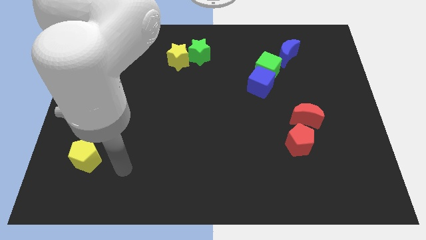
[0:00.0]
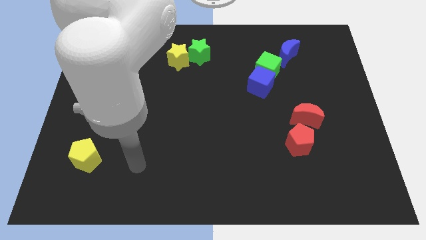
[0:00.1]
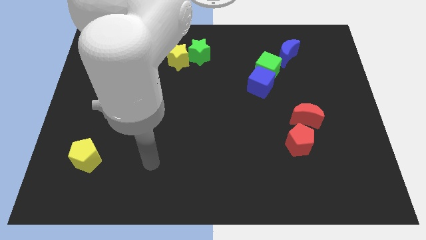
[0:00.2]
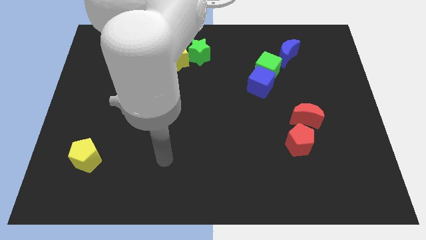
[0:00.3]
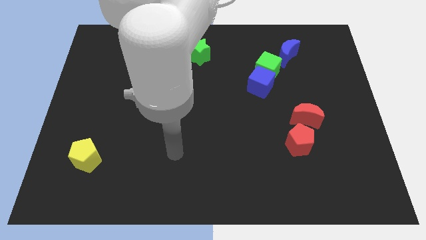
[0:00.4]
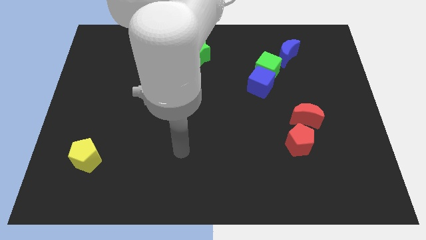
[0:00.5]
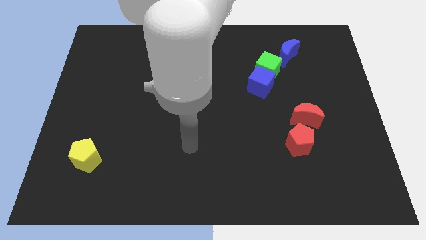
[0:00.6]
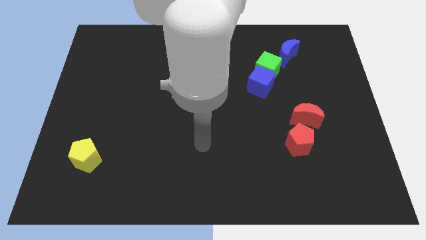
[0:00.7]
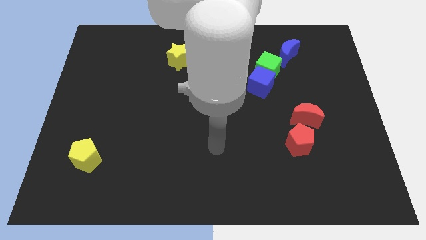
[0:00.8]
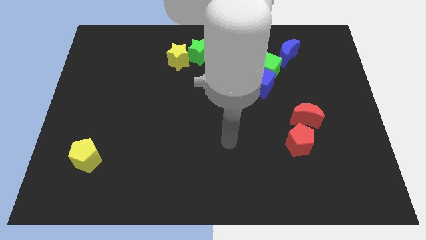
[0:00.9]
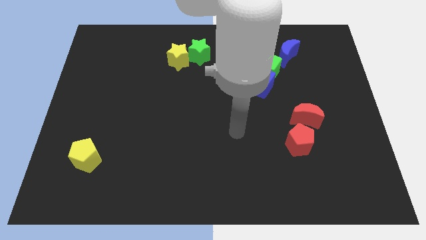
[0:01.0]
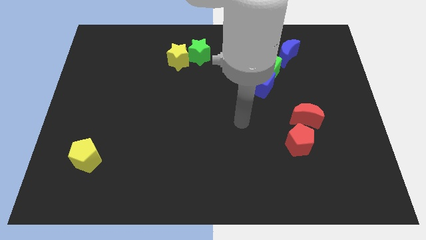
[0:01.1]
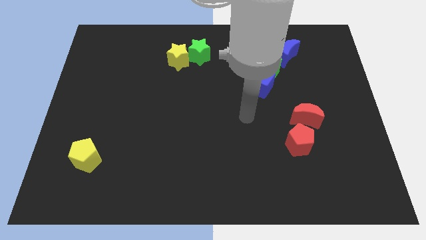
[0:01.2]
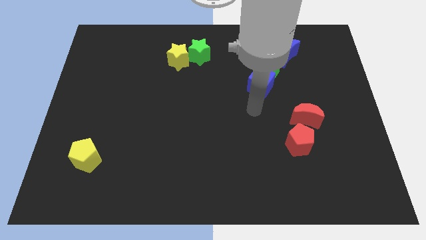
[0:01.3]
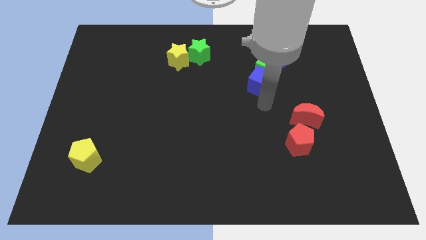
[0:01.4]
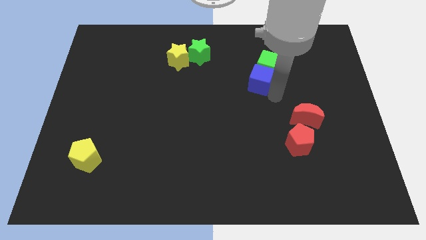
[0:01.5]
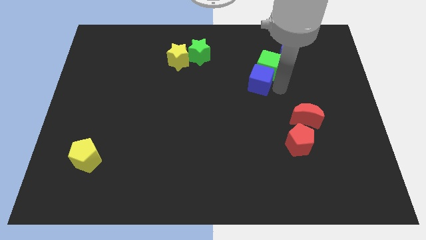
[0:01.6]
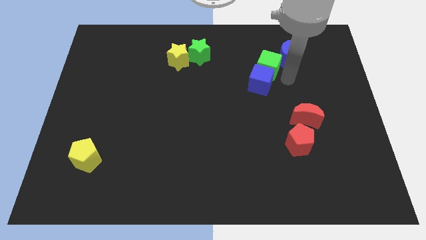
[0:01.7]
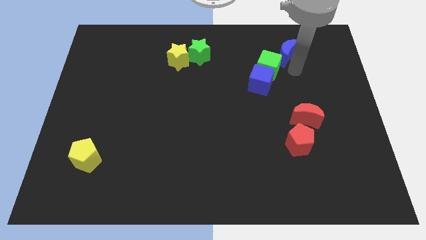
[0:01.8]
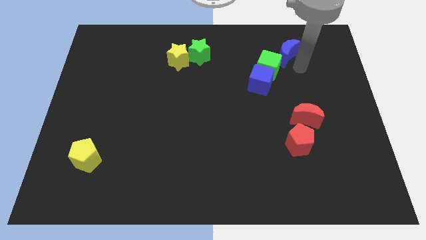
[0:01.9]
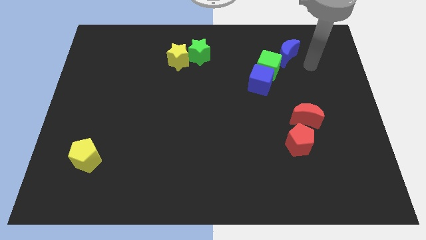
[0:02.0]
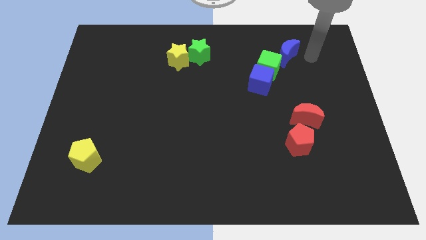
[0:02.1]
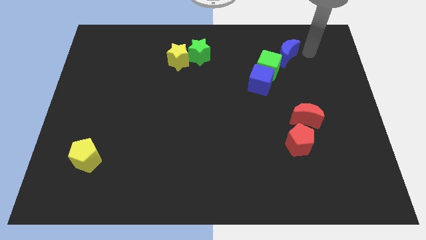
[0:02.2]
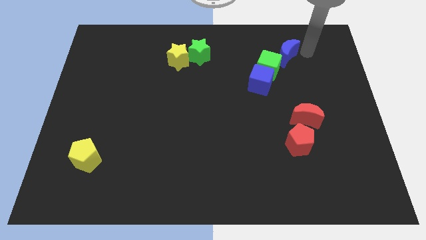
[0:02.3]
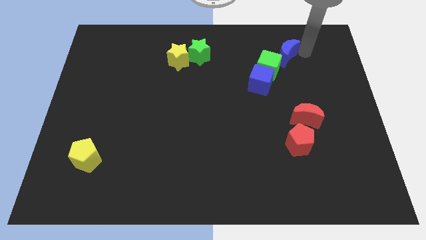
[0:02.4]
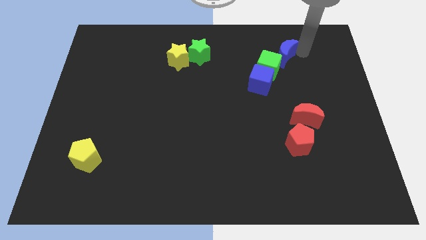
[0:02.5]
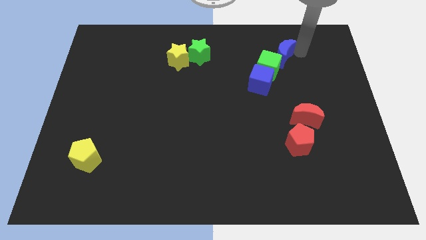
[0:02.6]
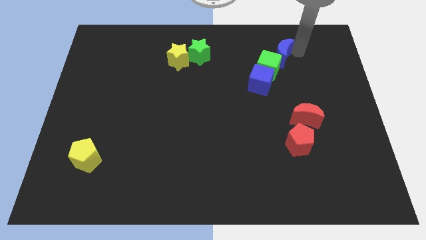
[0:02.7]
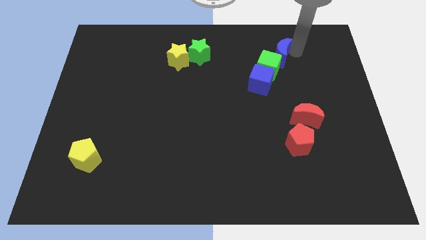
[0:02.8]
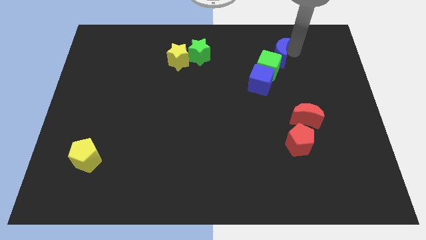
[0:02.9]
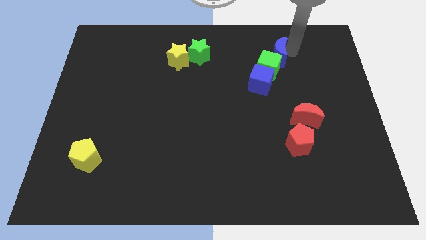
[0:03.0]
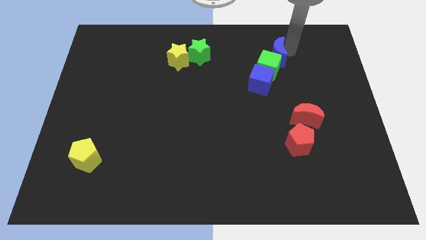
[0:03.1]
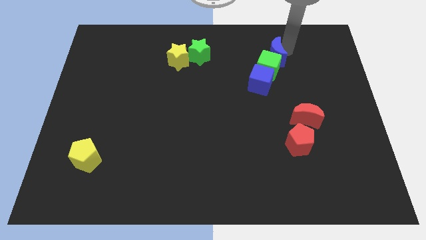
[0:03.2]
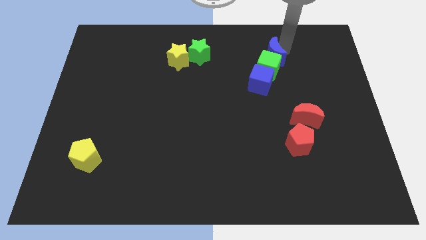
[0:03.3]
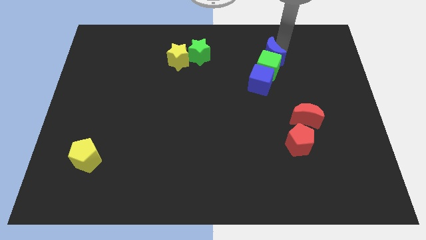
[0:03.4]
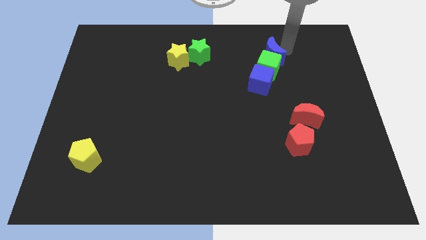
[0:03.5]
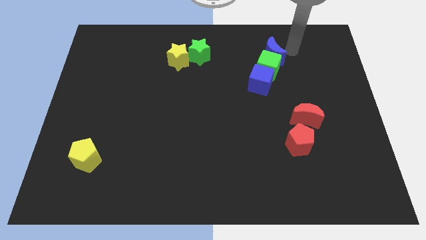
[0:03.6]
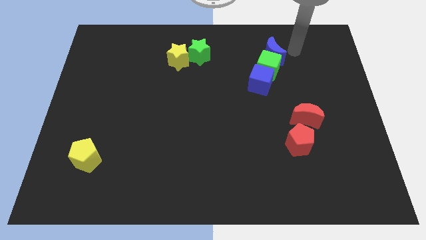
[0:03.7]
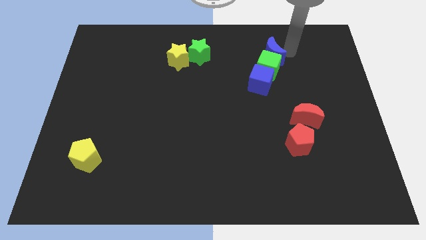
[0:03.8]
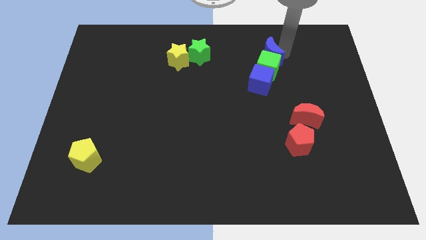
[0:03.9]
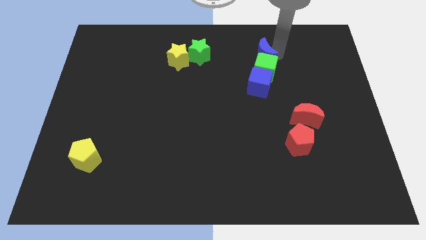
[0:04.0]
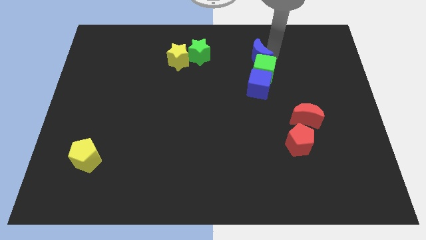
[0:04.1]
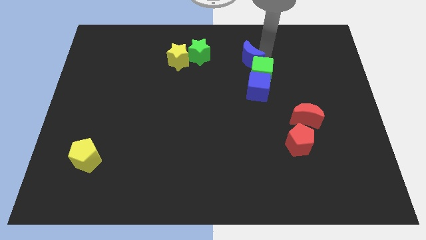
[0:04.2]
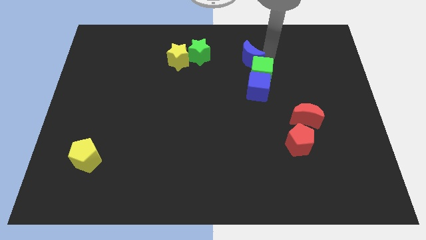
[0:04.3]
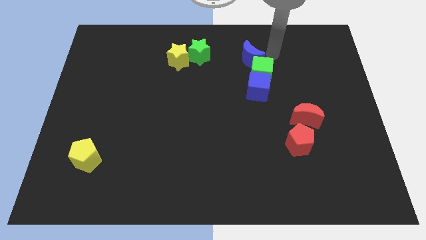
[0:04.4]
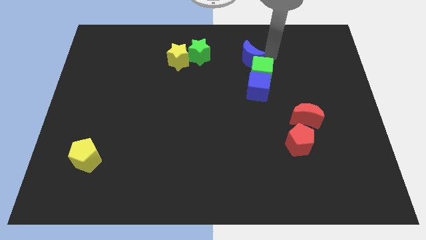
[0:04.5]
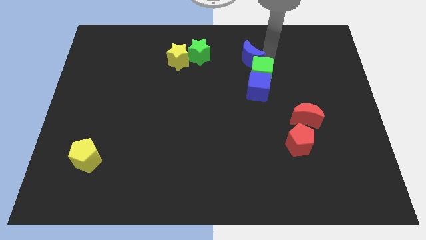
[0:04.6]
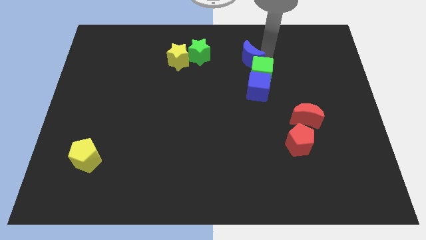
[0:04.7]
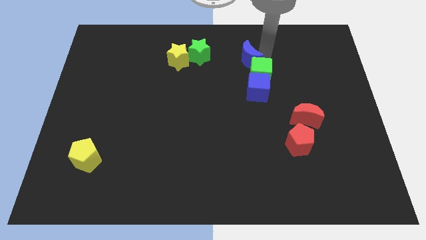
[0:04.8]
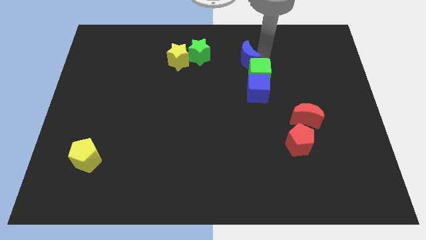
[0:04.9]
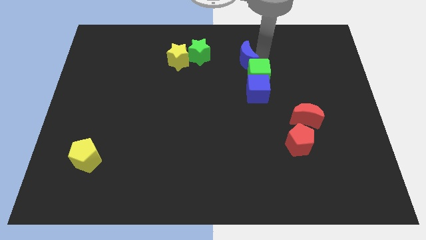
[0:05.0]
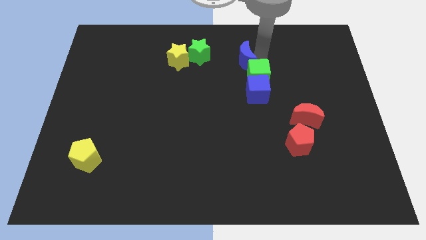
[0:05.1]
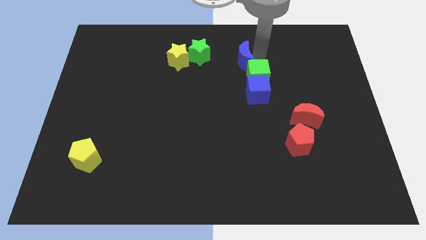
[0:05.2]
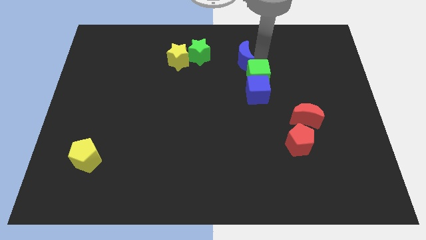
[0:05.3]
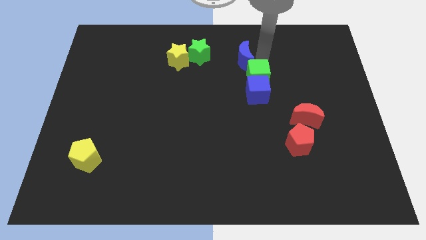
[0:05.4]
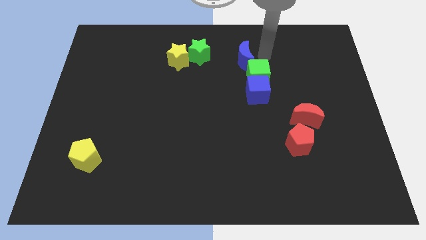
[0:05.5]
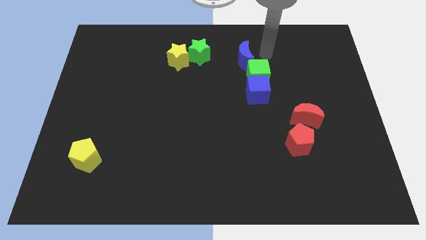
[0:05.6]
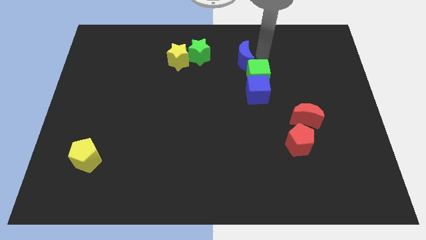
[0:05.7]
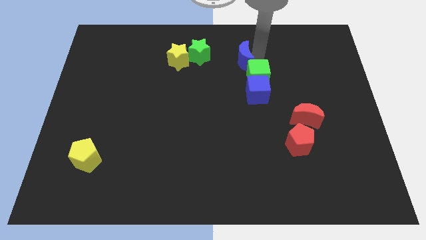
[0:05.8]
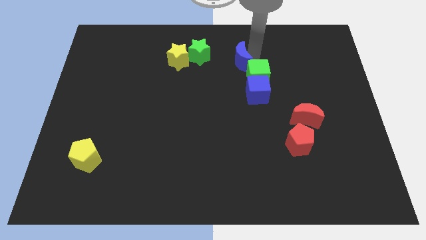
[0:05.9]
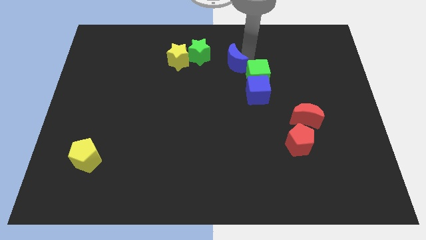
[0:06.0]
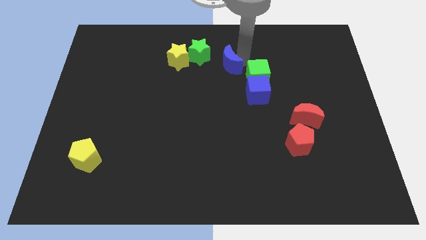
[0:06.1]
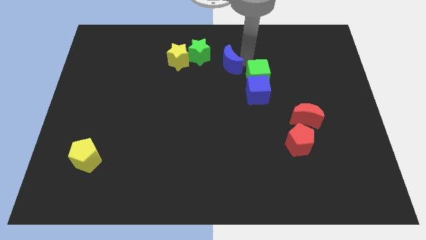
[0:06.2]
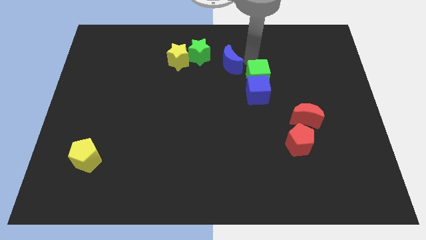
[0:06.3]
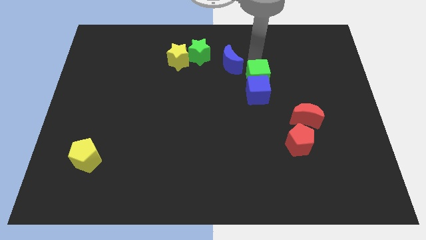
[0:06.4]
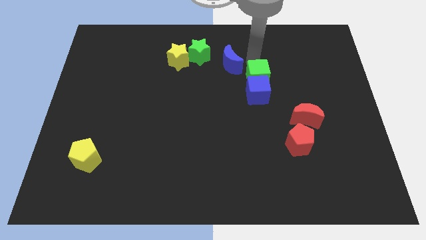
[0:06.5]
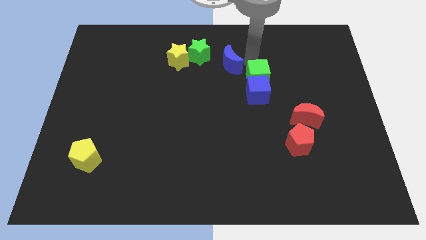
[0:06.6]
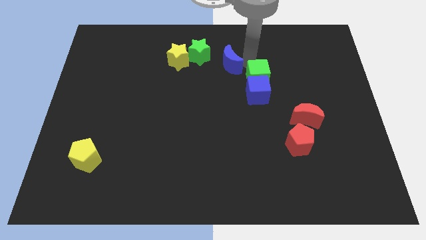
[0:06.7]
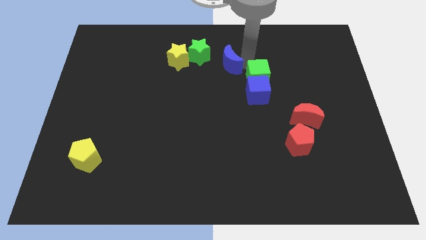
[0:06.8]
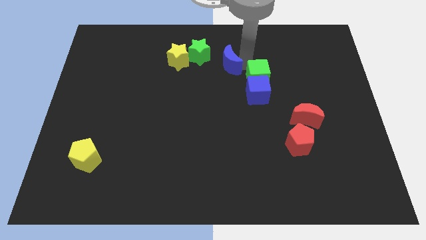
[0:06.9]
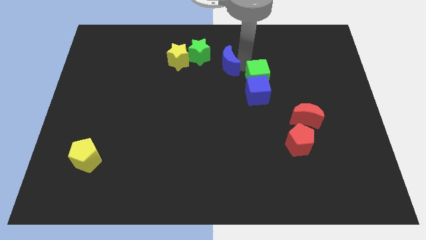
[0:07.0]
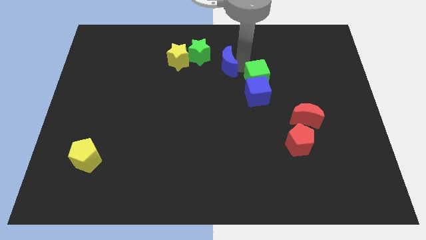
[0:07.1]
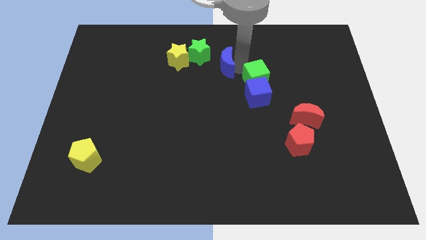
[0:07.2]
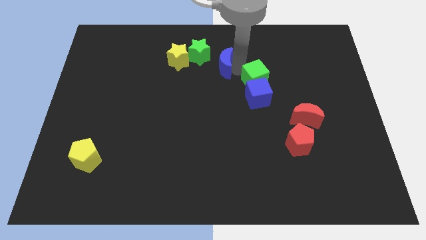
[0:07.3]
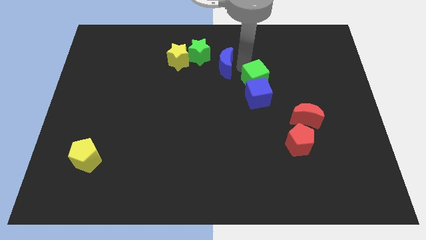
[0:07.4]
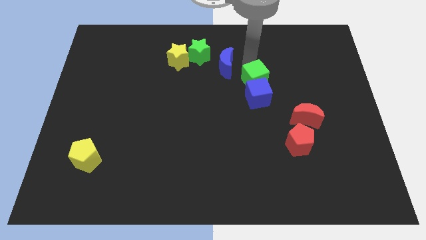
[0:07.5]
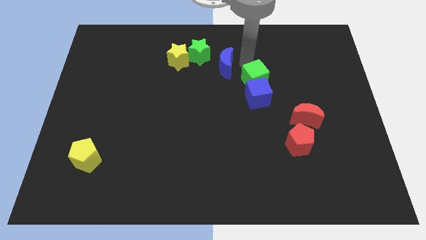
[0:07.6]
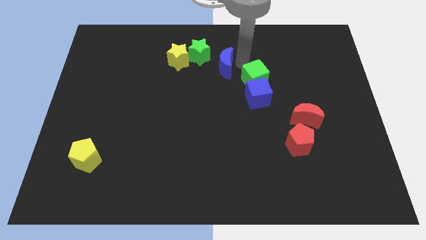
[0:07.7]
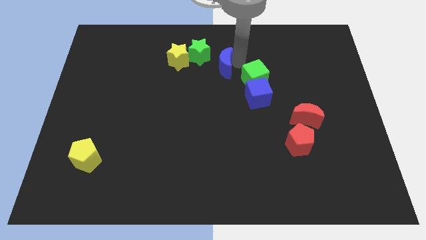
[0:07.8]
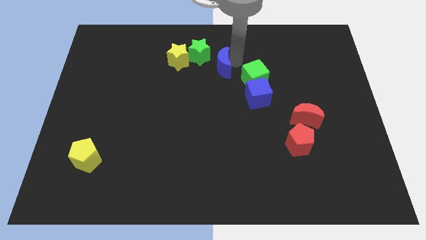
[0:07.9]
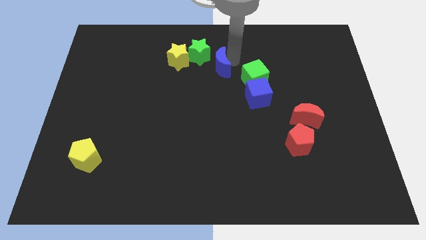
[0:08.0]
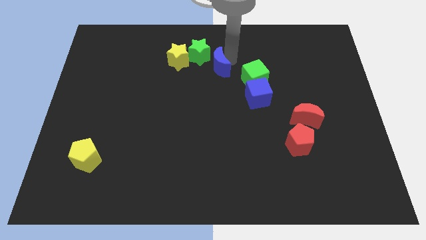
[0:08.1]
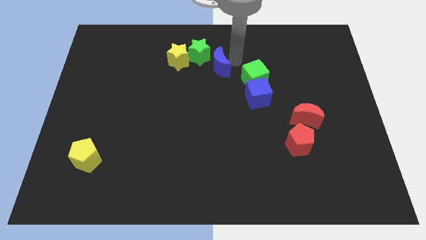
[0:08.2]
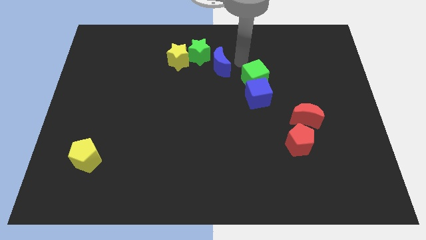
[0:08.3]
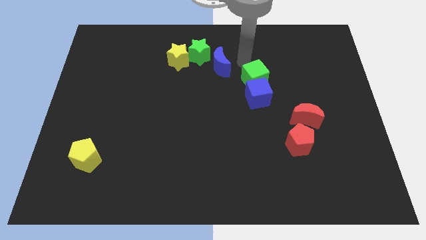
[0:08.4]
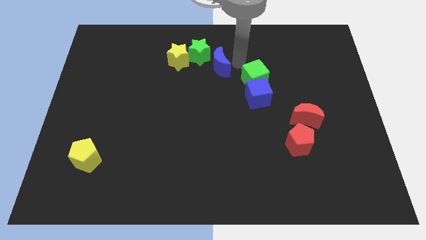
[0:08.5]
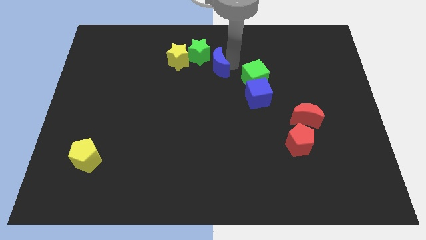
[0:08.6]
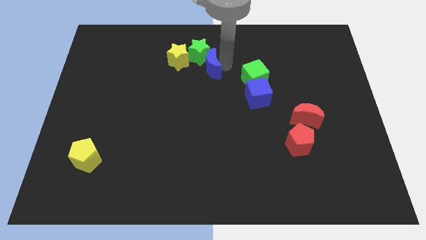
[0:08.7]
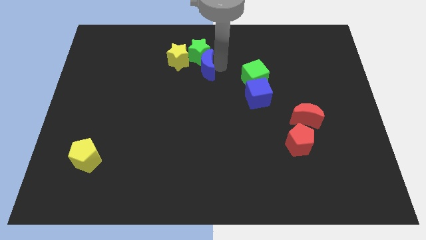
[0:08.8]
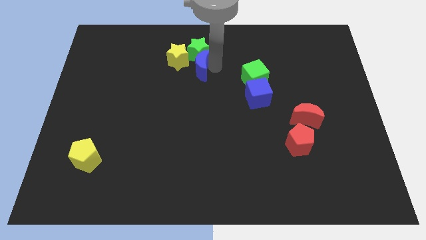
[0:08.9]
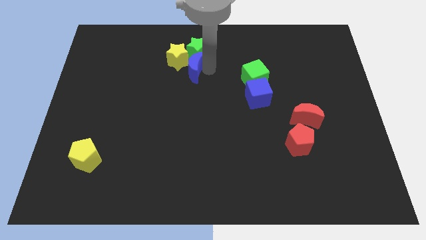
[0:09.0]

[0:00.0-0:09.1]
slide the blue moon next to the yellow star
